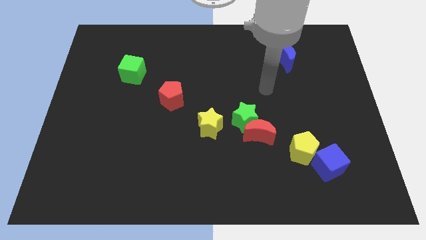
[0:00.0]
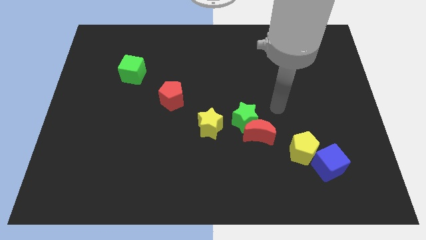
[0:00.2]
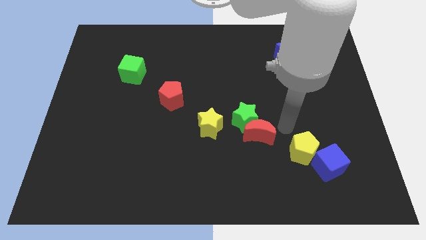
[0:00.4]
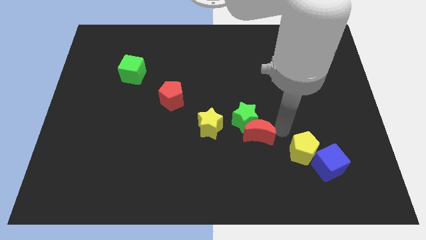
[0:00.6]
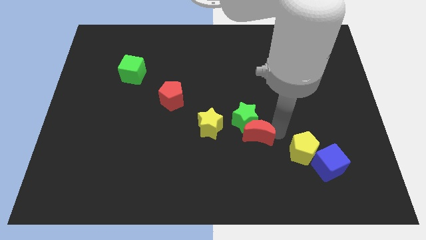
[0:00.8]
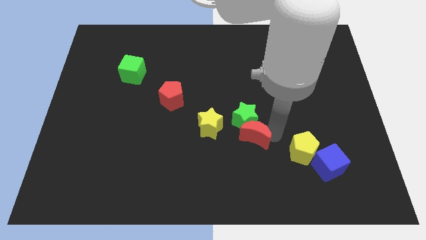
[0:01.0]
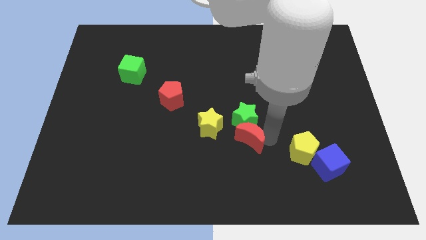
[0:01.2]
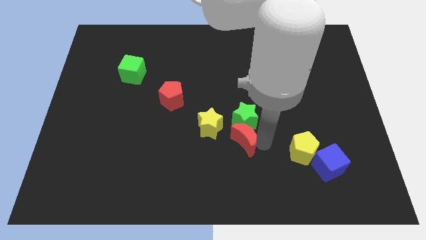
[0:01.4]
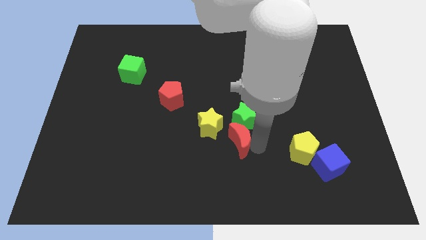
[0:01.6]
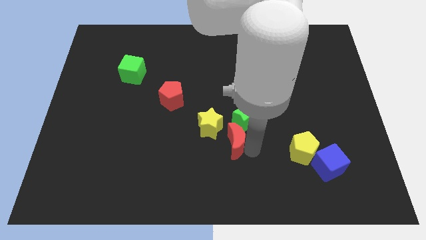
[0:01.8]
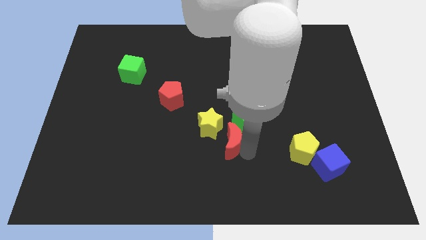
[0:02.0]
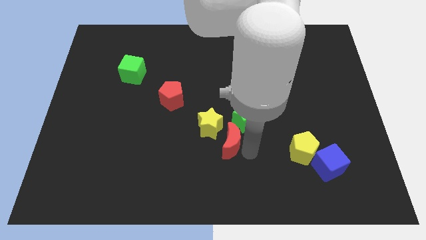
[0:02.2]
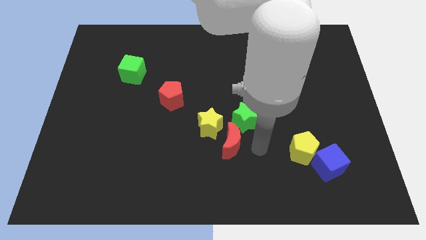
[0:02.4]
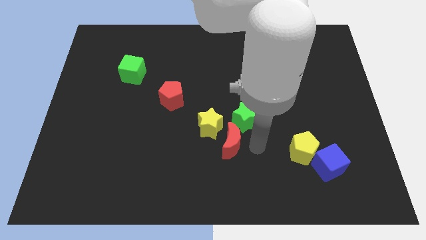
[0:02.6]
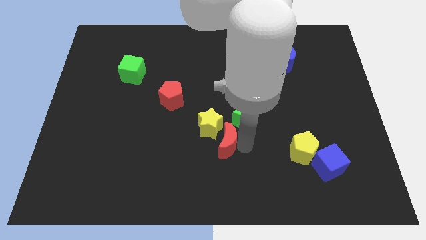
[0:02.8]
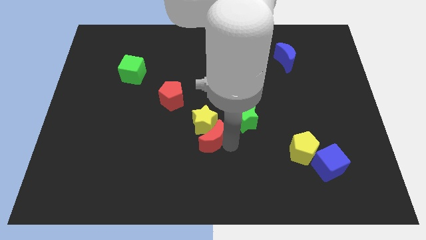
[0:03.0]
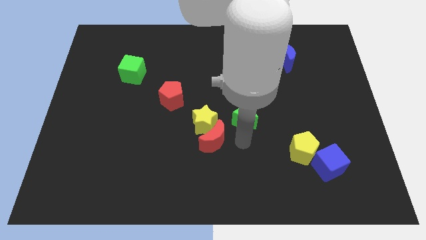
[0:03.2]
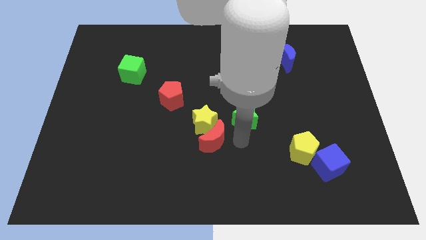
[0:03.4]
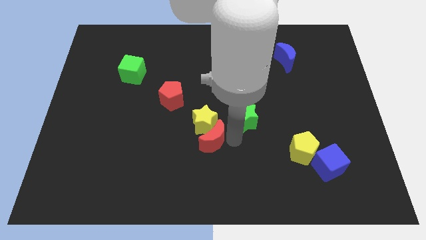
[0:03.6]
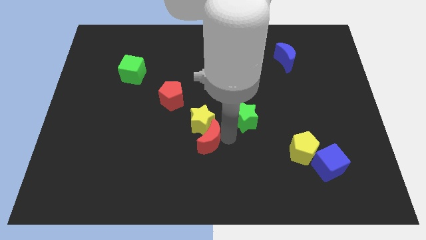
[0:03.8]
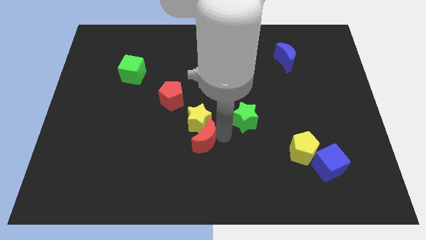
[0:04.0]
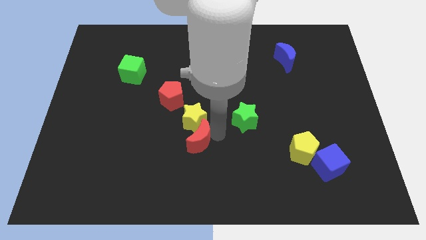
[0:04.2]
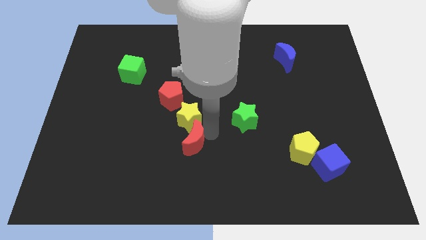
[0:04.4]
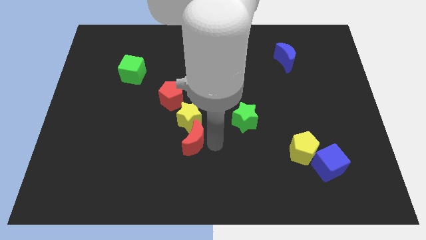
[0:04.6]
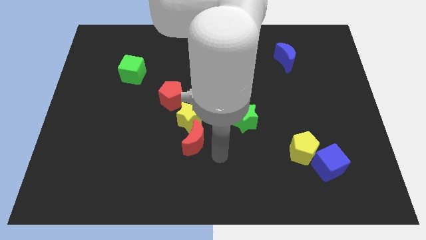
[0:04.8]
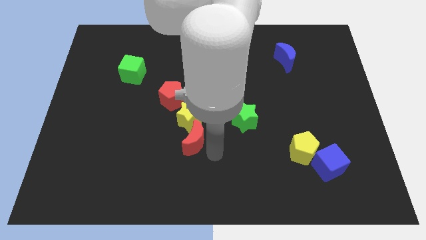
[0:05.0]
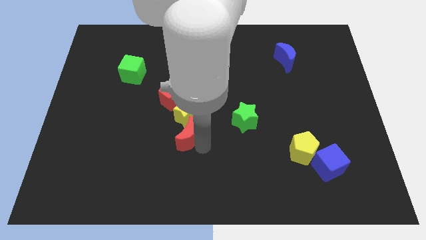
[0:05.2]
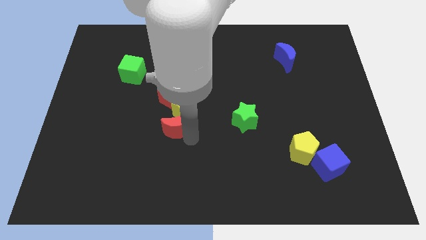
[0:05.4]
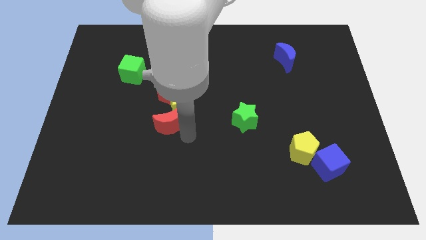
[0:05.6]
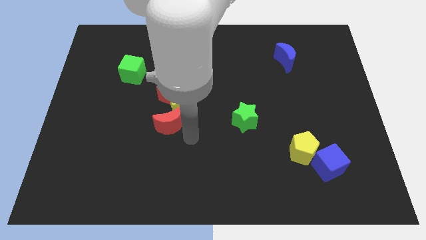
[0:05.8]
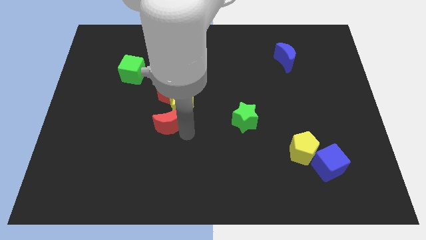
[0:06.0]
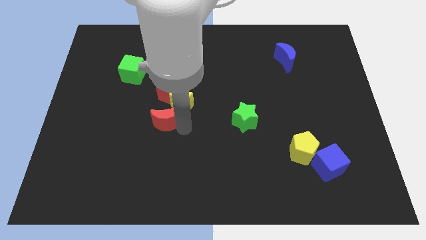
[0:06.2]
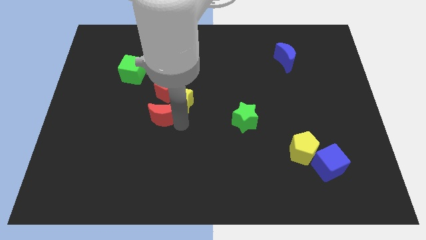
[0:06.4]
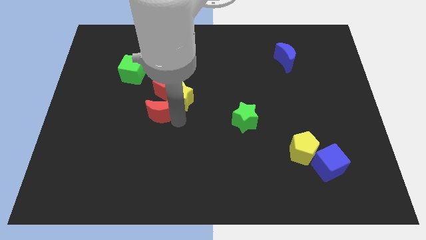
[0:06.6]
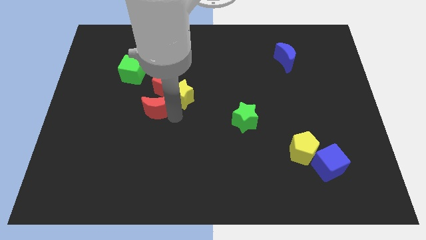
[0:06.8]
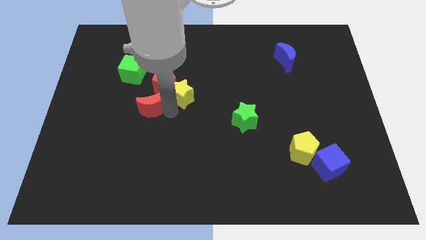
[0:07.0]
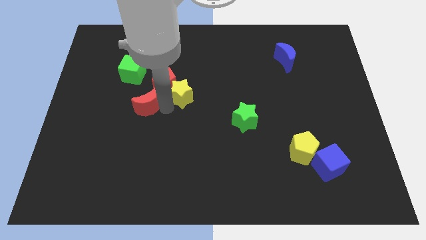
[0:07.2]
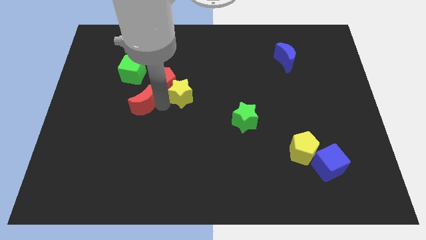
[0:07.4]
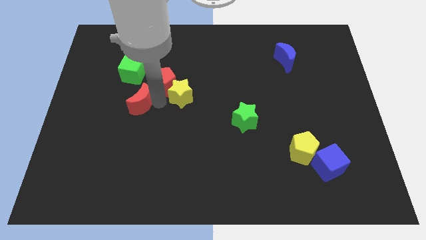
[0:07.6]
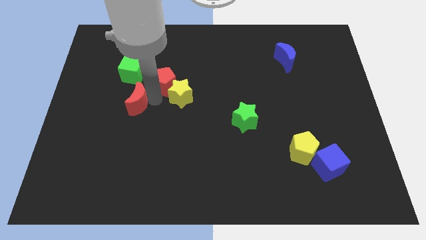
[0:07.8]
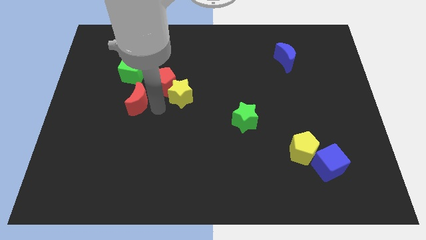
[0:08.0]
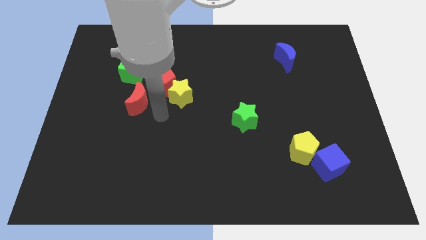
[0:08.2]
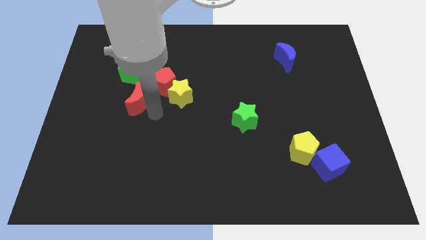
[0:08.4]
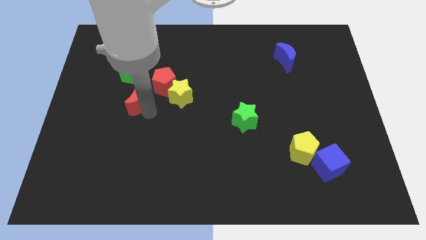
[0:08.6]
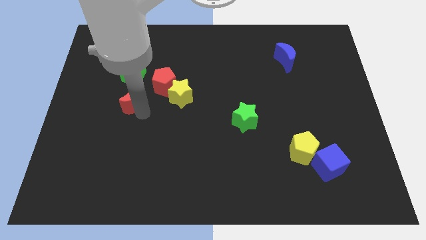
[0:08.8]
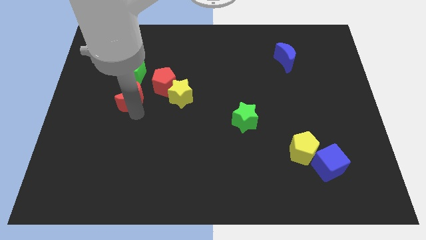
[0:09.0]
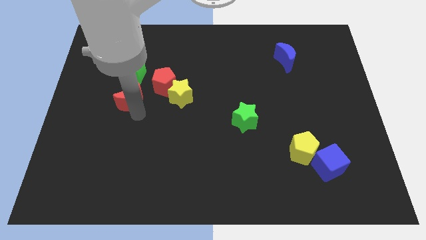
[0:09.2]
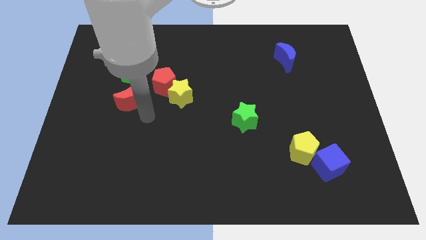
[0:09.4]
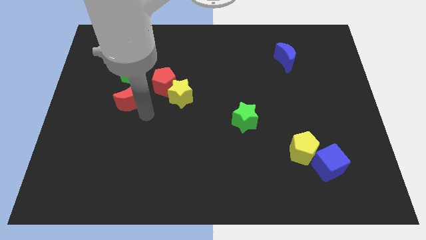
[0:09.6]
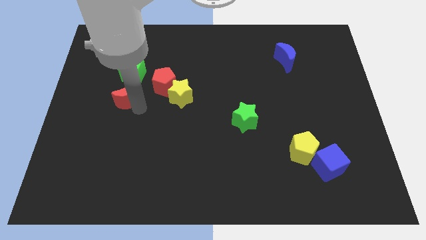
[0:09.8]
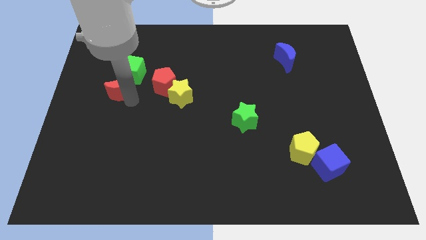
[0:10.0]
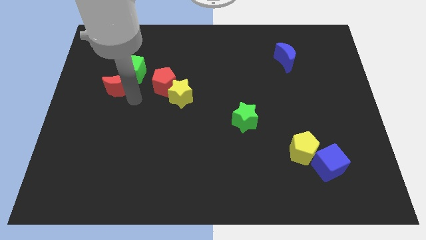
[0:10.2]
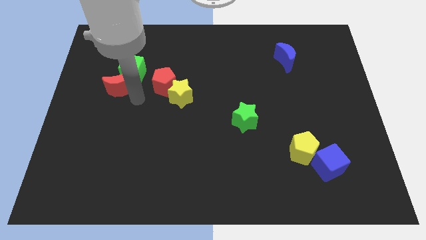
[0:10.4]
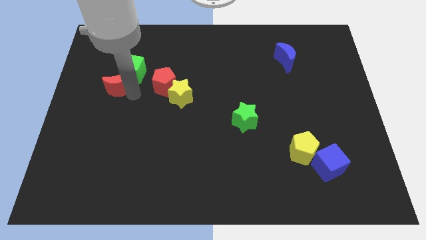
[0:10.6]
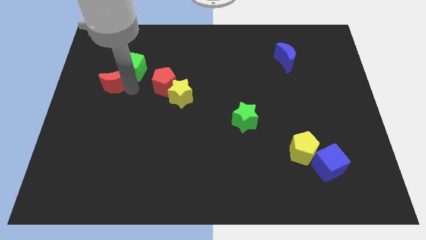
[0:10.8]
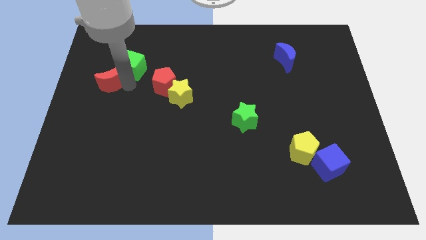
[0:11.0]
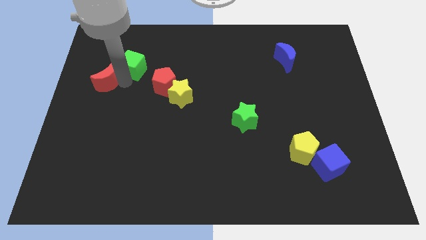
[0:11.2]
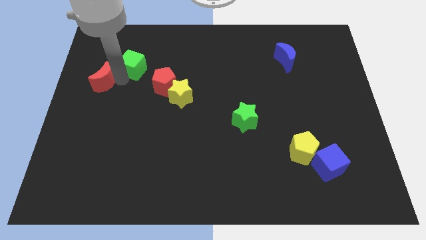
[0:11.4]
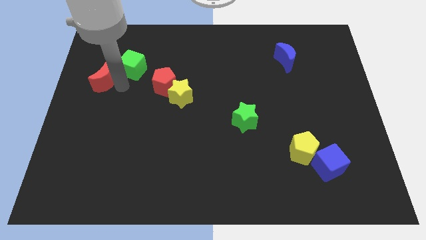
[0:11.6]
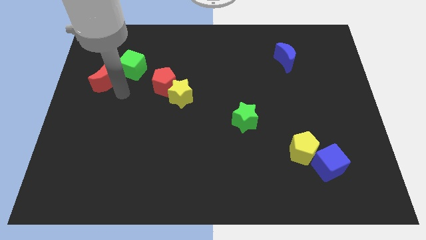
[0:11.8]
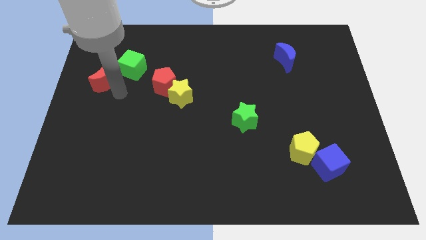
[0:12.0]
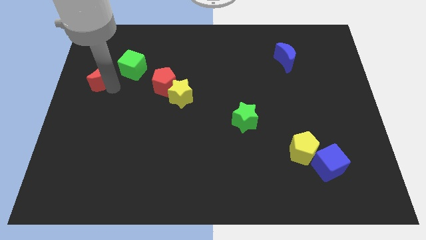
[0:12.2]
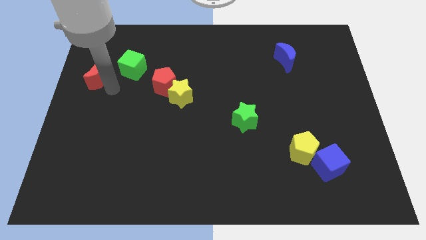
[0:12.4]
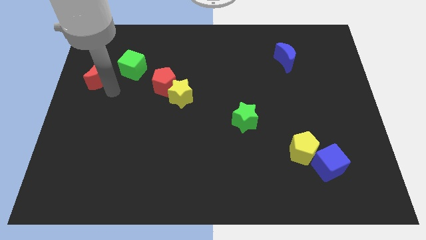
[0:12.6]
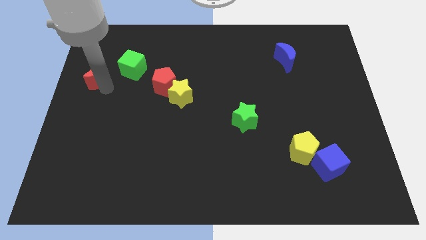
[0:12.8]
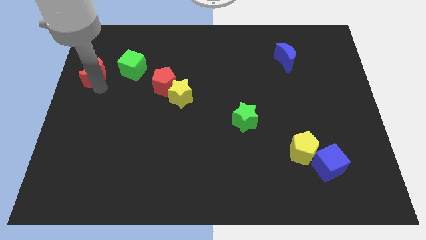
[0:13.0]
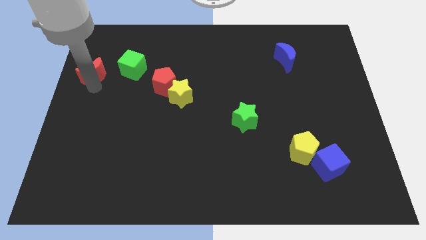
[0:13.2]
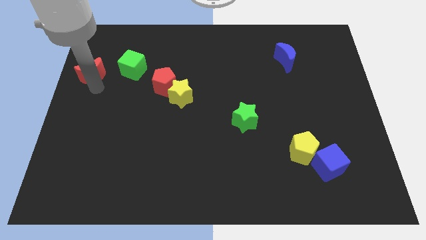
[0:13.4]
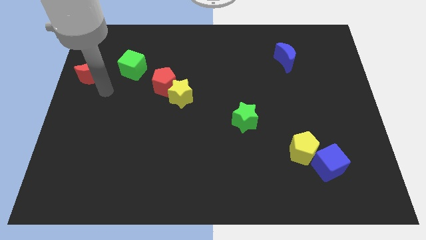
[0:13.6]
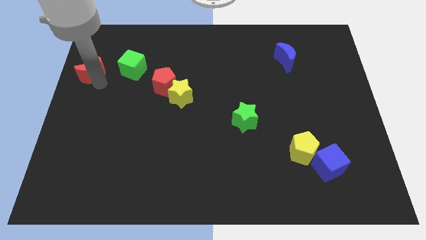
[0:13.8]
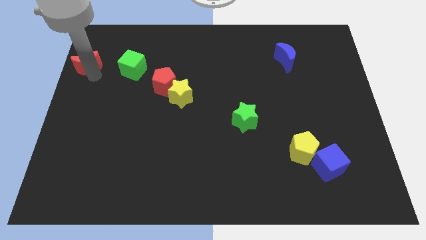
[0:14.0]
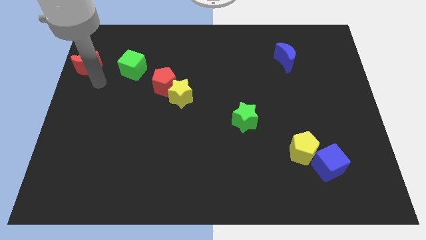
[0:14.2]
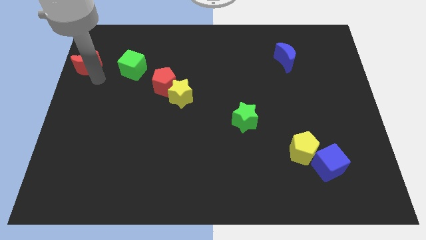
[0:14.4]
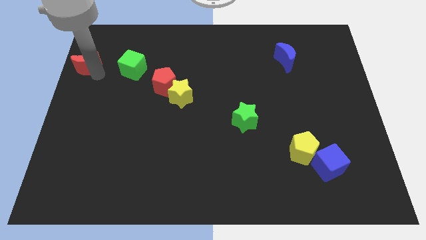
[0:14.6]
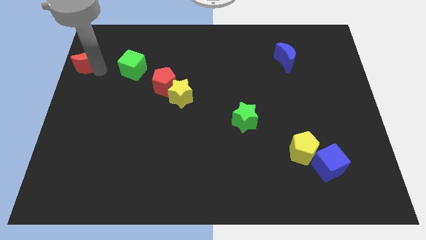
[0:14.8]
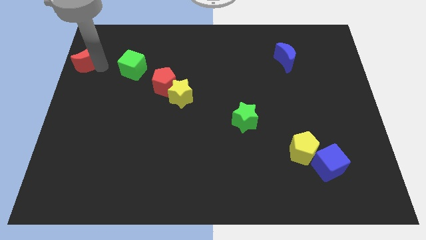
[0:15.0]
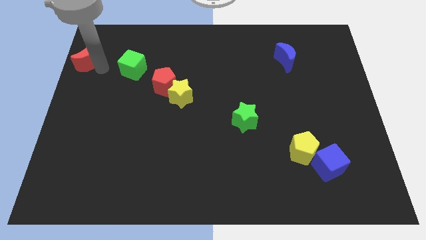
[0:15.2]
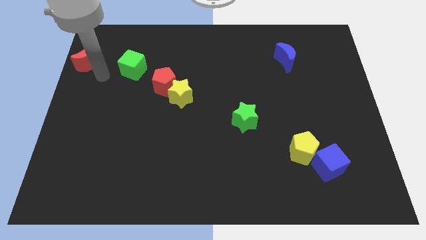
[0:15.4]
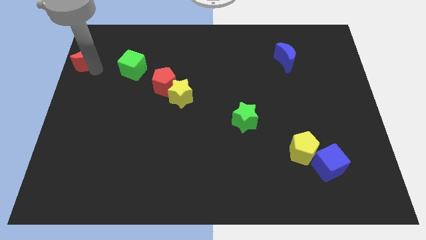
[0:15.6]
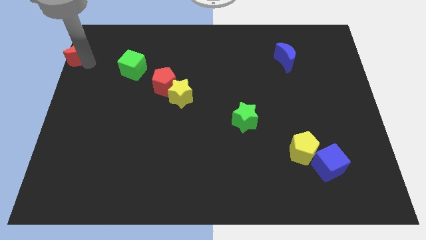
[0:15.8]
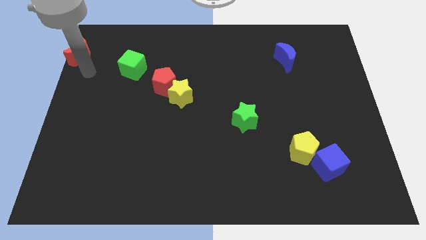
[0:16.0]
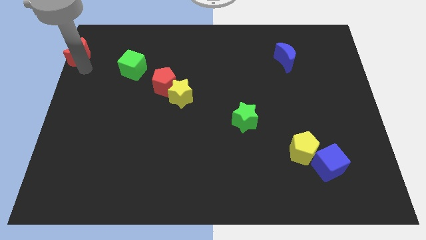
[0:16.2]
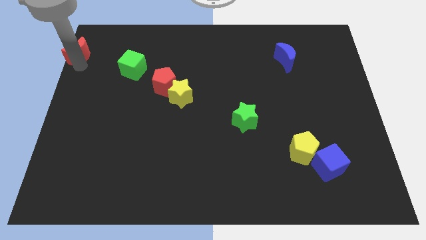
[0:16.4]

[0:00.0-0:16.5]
put the red moon to the top left of the board
